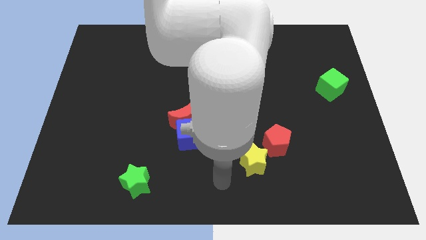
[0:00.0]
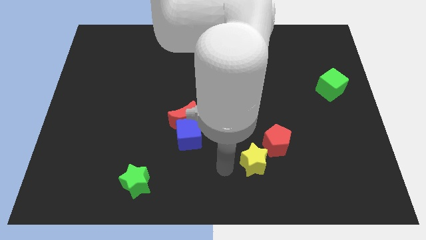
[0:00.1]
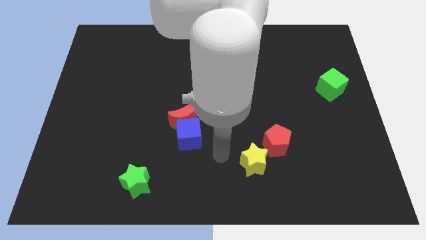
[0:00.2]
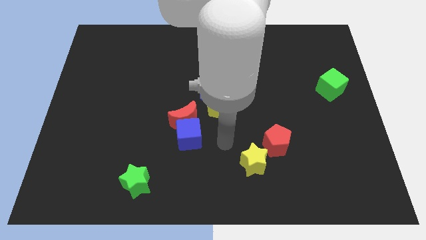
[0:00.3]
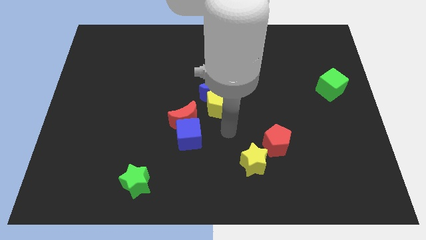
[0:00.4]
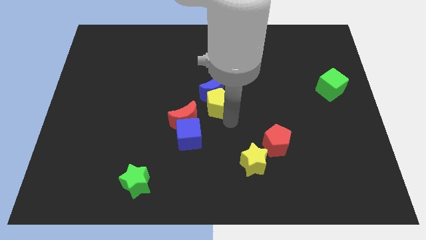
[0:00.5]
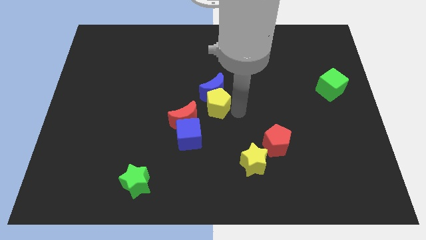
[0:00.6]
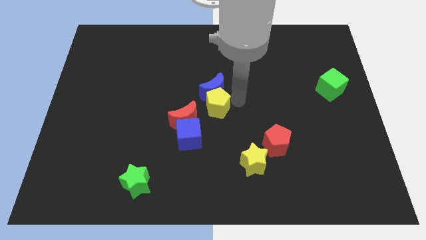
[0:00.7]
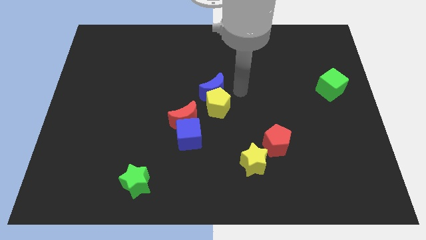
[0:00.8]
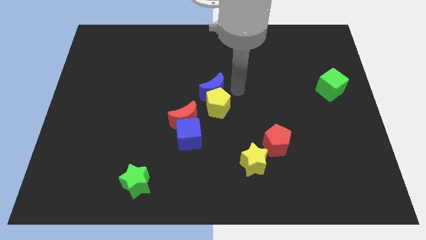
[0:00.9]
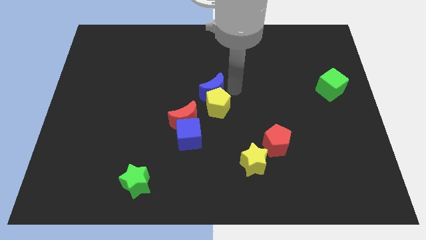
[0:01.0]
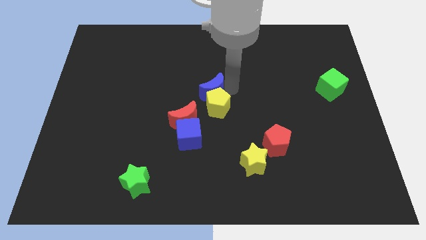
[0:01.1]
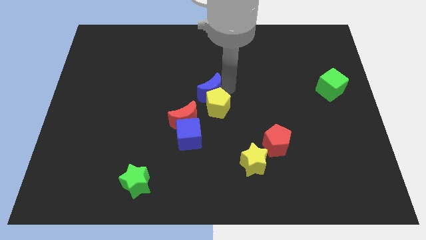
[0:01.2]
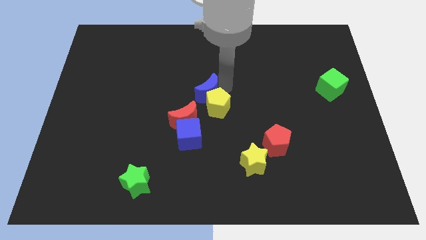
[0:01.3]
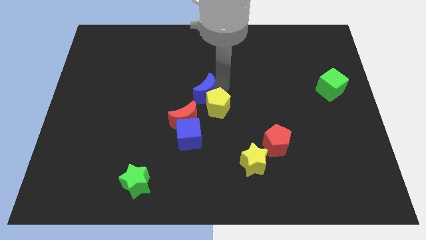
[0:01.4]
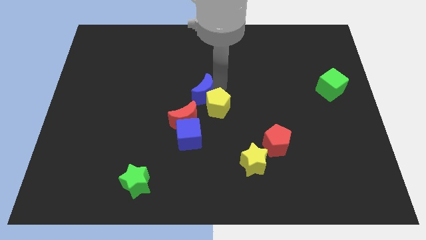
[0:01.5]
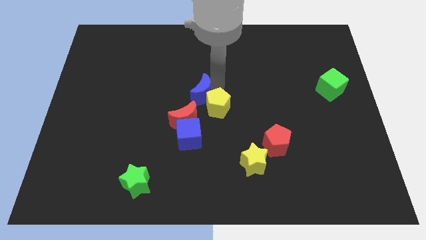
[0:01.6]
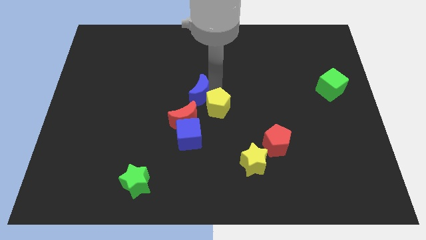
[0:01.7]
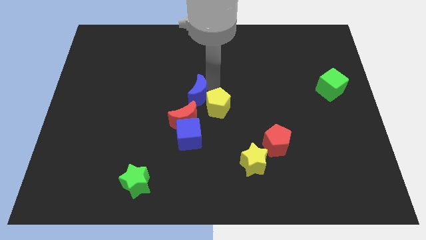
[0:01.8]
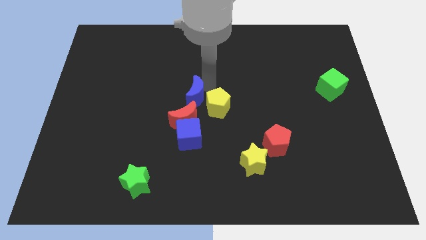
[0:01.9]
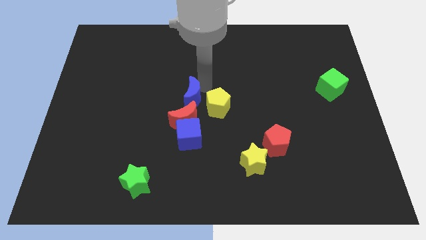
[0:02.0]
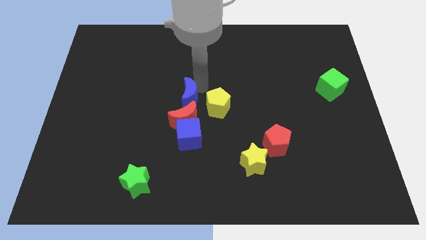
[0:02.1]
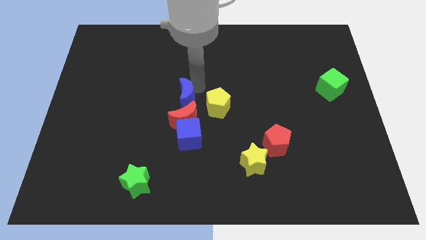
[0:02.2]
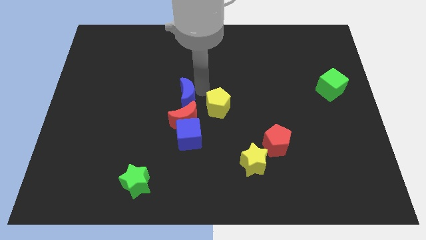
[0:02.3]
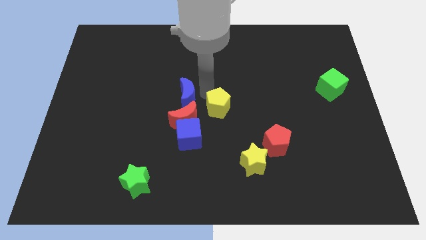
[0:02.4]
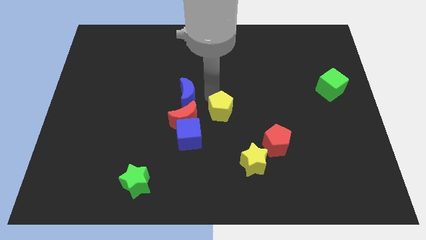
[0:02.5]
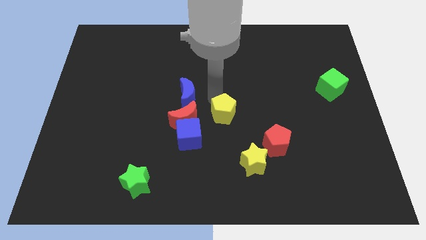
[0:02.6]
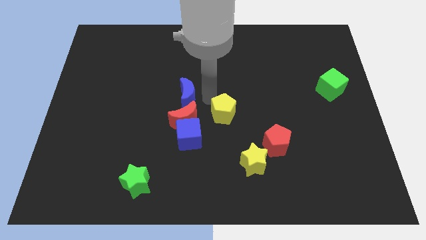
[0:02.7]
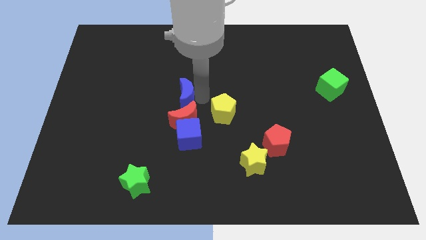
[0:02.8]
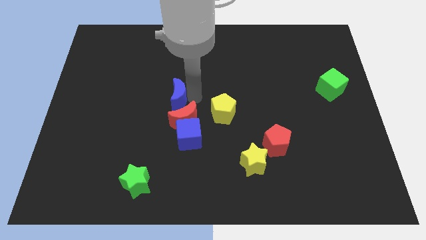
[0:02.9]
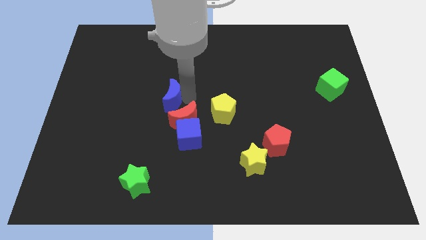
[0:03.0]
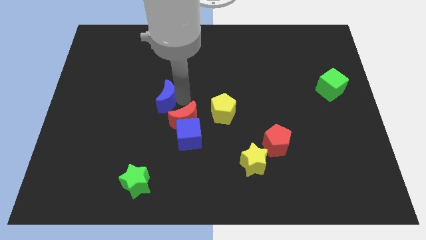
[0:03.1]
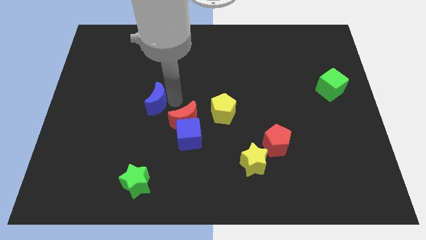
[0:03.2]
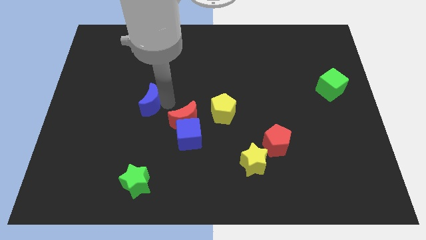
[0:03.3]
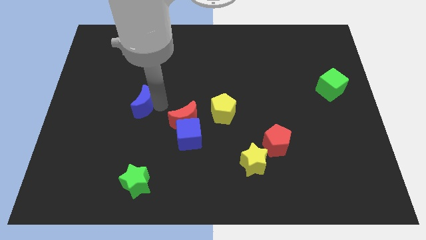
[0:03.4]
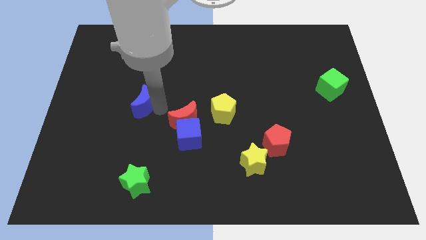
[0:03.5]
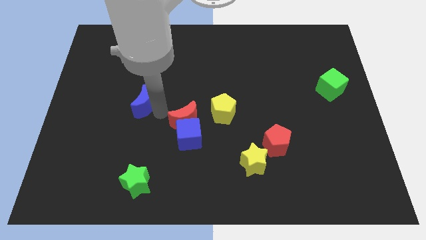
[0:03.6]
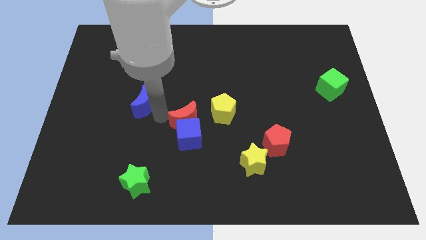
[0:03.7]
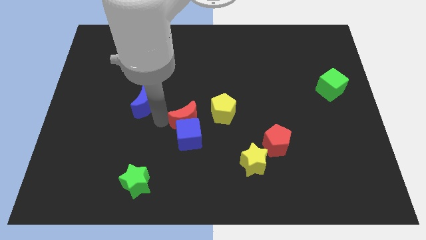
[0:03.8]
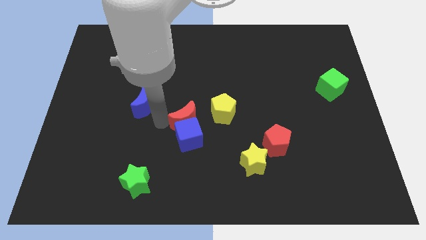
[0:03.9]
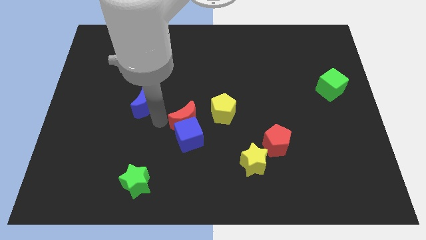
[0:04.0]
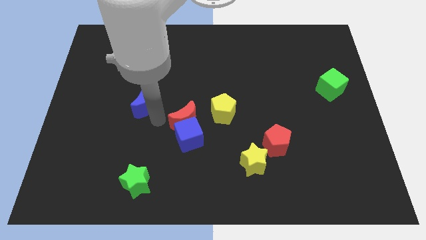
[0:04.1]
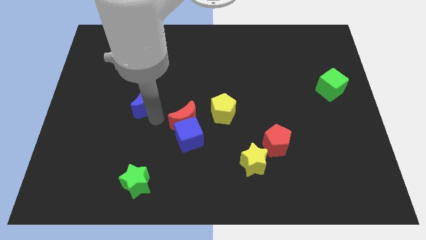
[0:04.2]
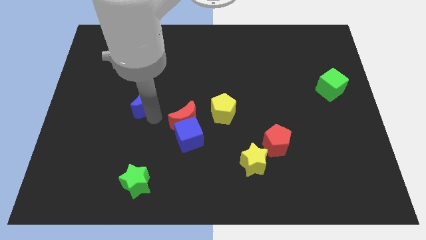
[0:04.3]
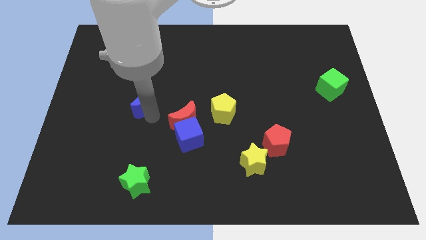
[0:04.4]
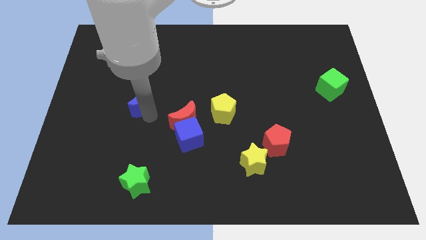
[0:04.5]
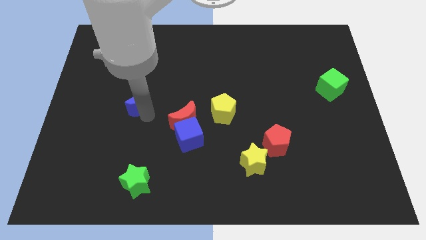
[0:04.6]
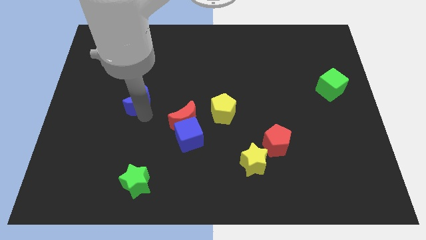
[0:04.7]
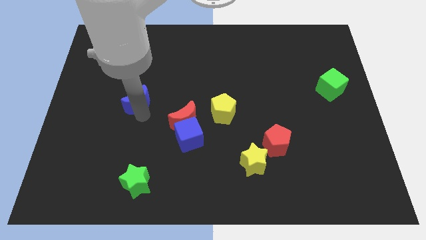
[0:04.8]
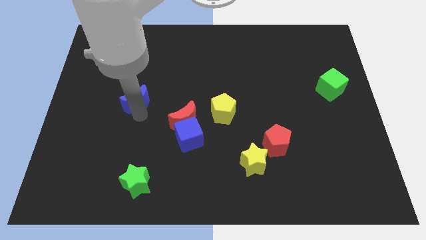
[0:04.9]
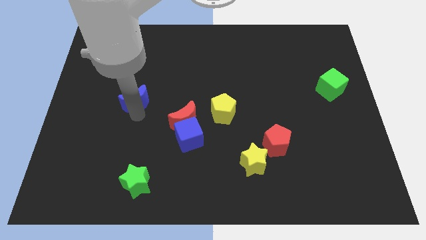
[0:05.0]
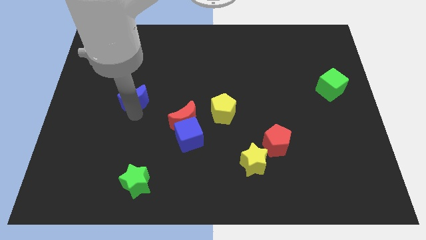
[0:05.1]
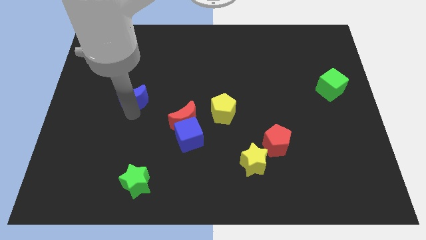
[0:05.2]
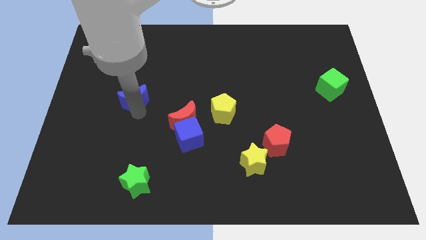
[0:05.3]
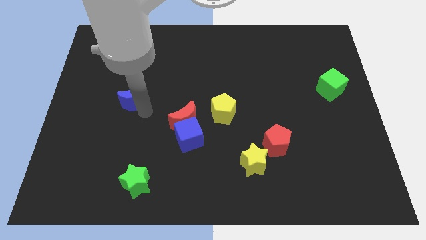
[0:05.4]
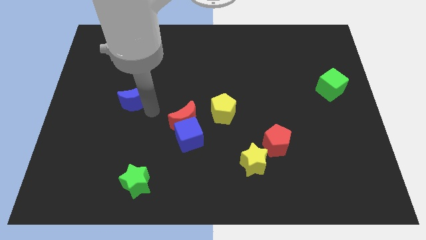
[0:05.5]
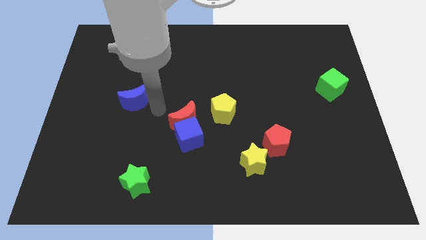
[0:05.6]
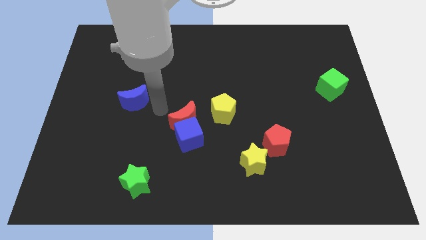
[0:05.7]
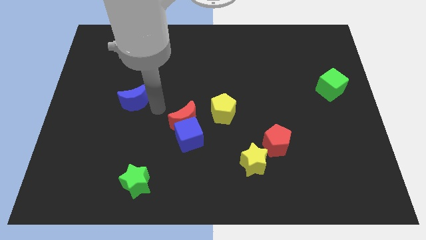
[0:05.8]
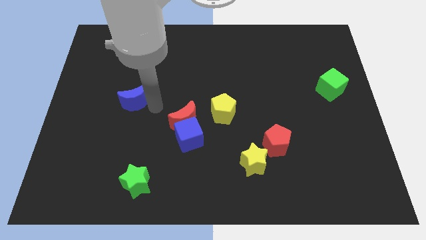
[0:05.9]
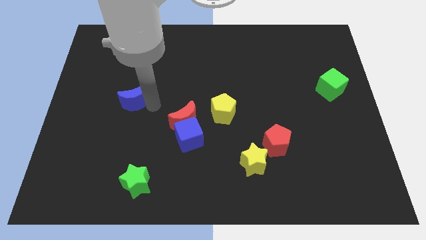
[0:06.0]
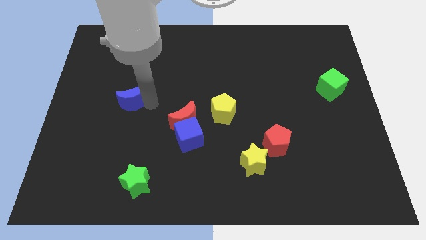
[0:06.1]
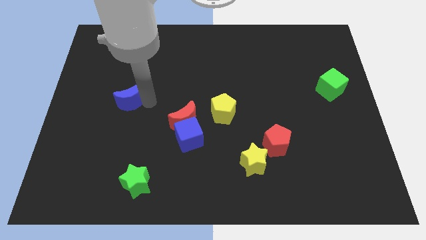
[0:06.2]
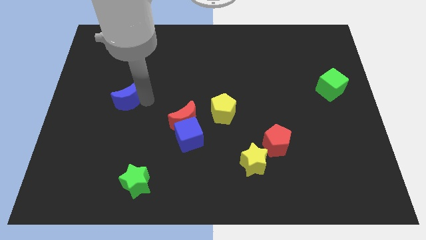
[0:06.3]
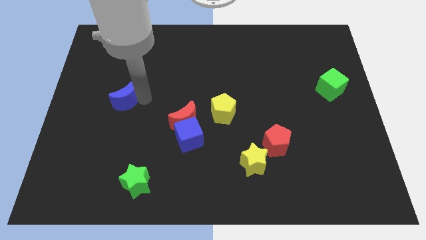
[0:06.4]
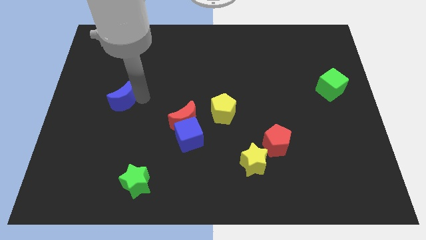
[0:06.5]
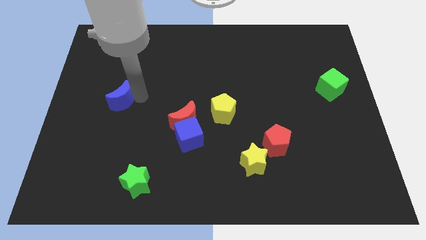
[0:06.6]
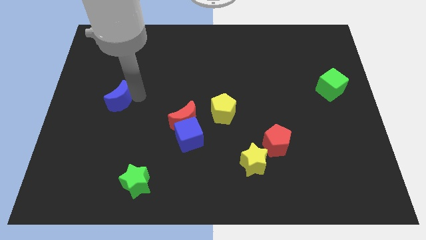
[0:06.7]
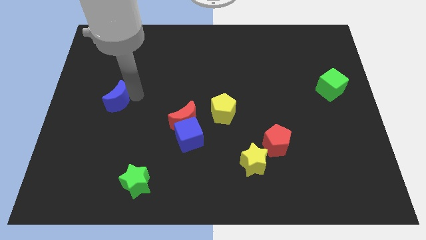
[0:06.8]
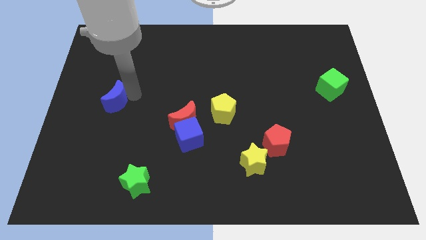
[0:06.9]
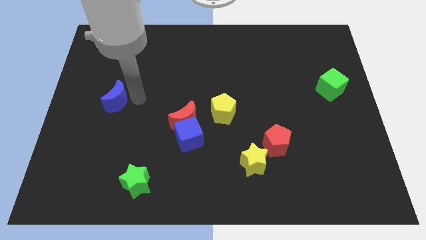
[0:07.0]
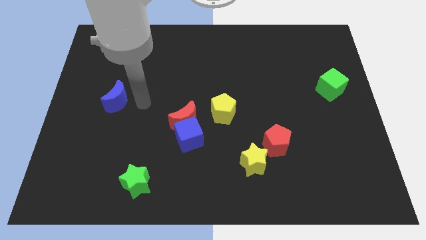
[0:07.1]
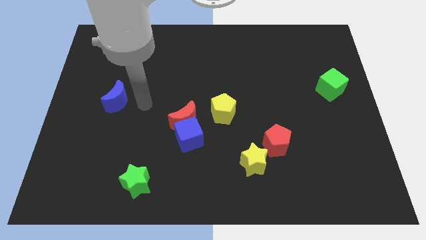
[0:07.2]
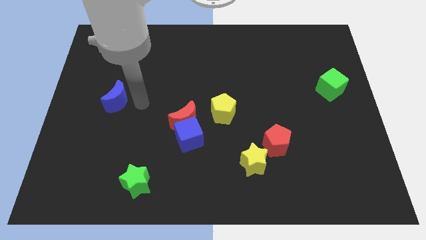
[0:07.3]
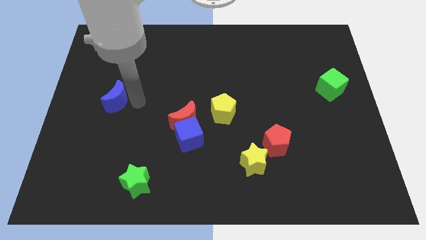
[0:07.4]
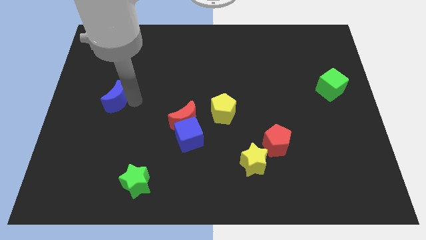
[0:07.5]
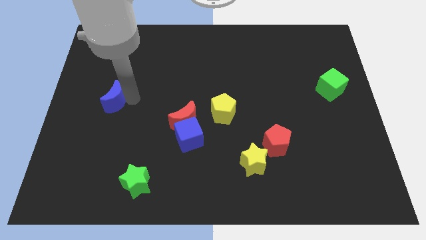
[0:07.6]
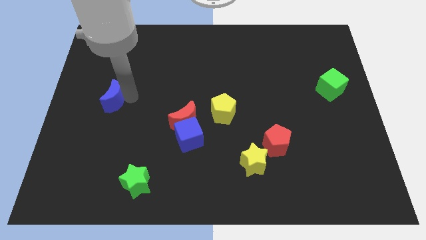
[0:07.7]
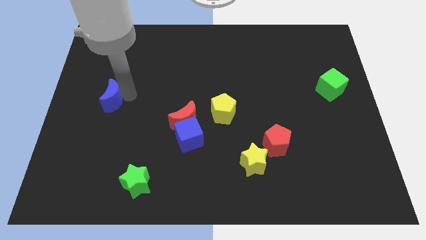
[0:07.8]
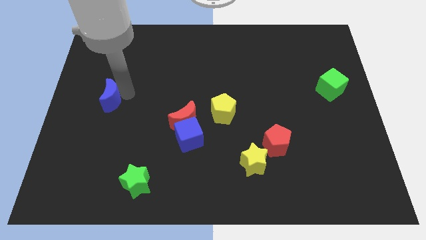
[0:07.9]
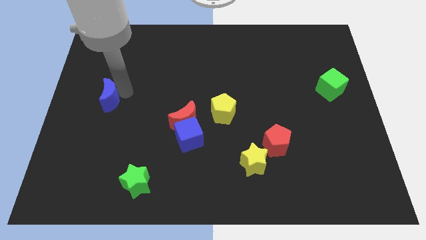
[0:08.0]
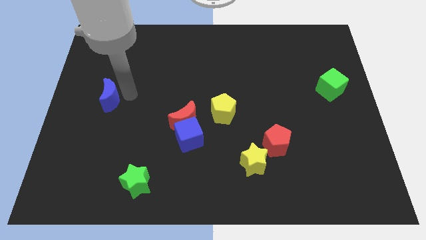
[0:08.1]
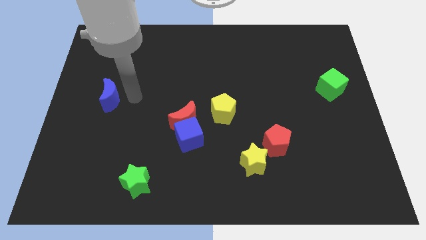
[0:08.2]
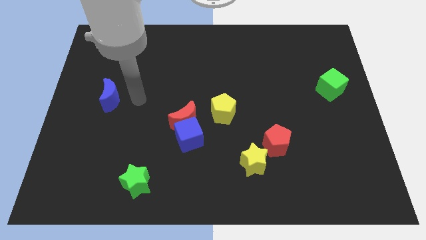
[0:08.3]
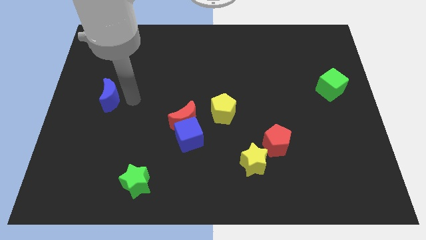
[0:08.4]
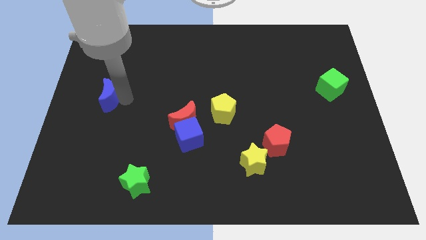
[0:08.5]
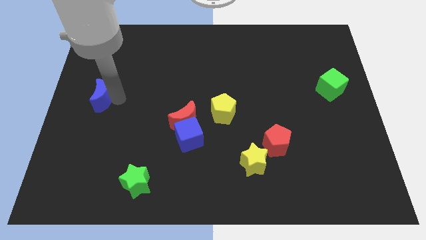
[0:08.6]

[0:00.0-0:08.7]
push the blue moon to the left side of the board
